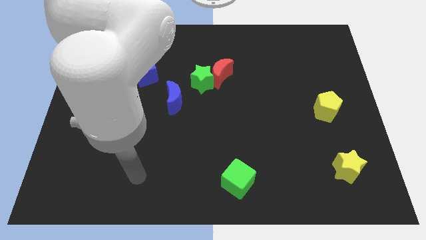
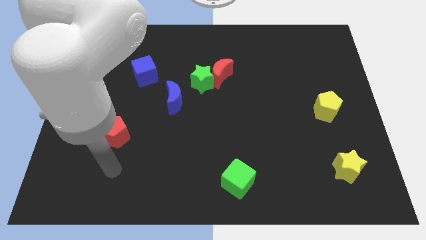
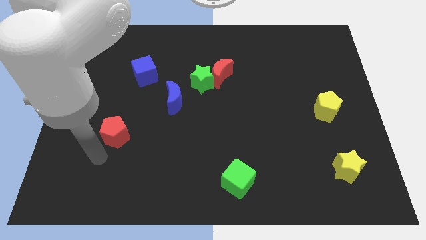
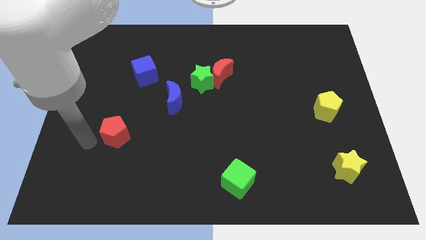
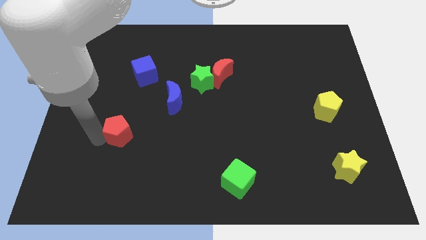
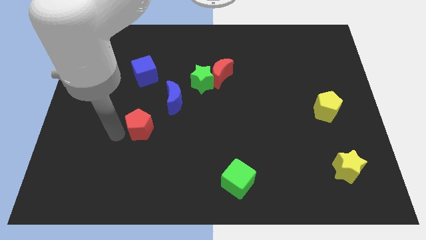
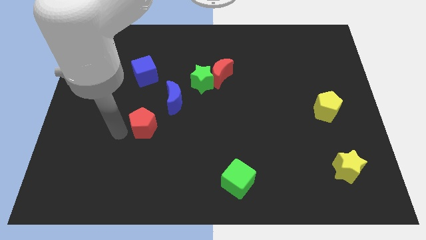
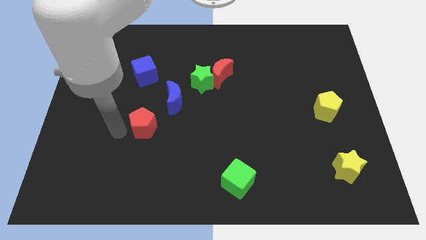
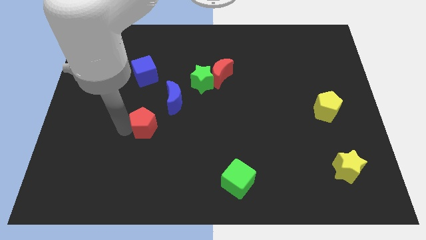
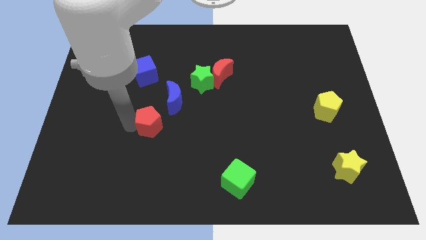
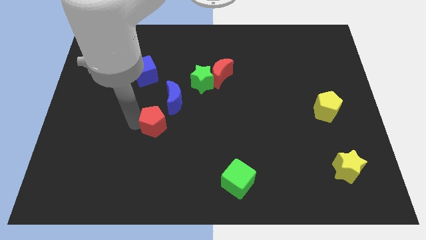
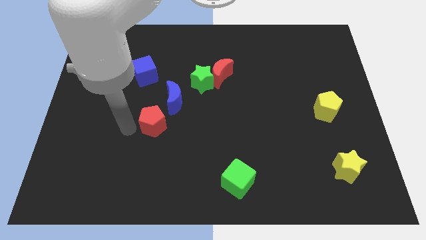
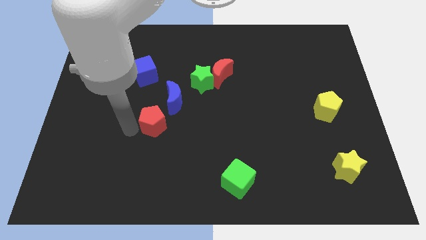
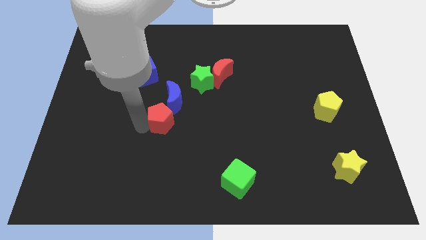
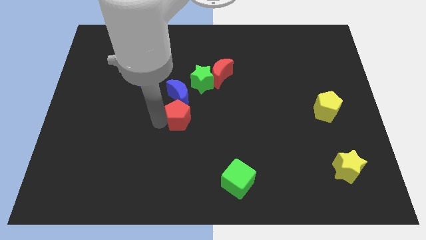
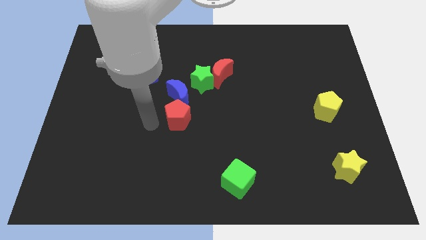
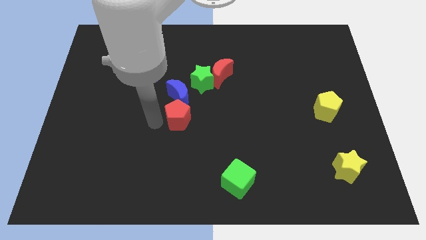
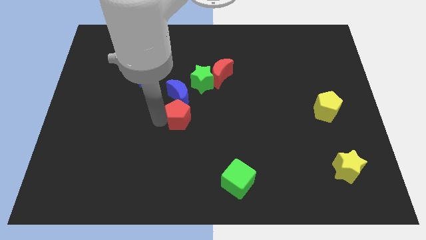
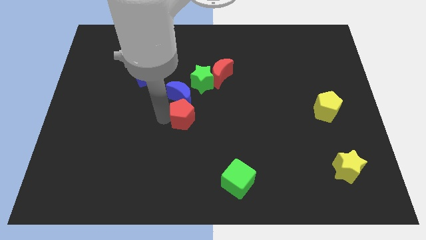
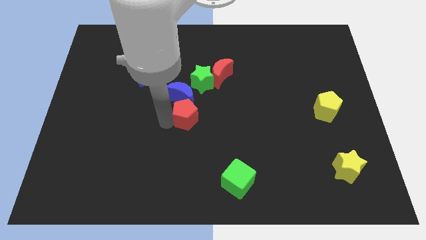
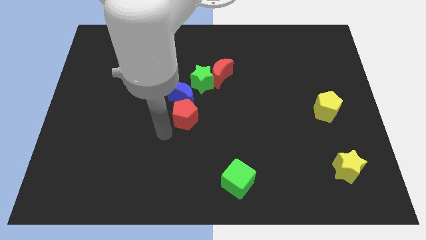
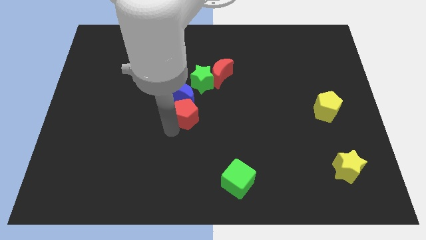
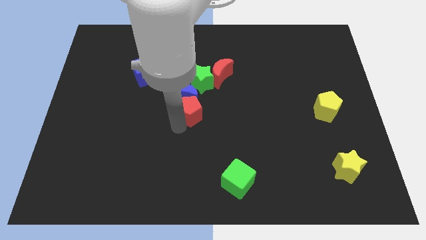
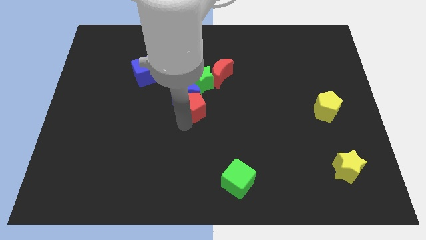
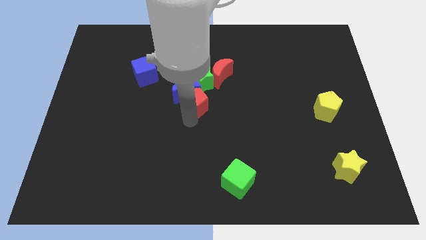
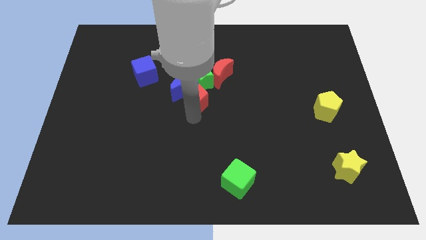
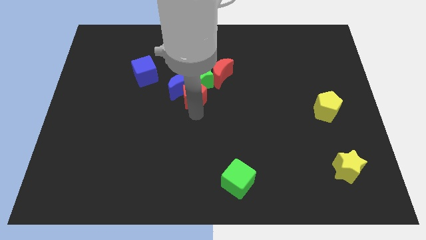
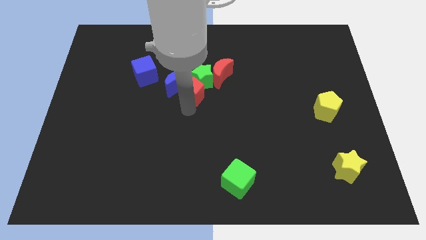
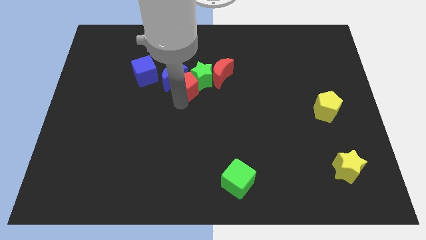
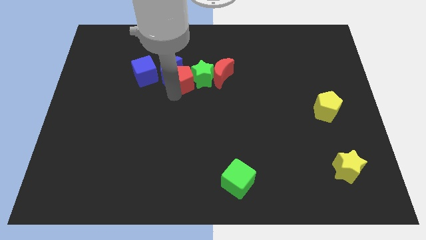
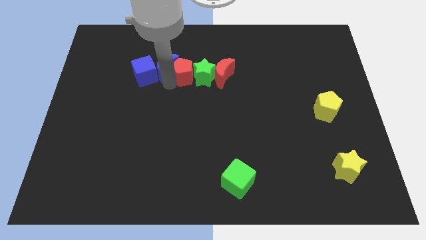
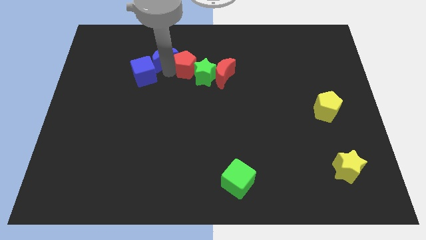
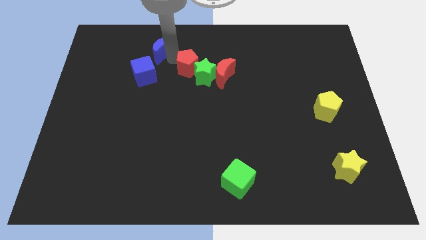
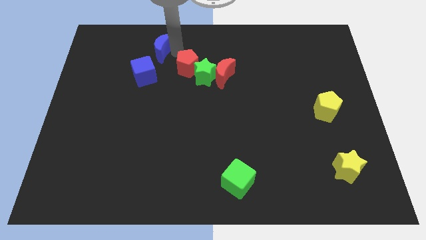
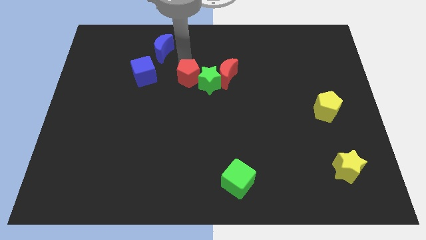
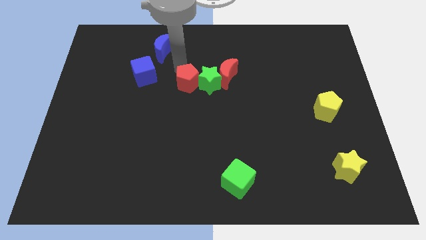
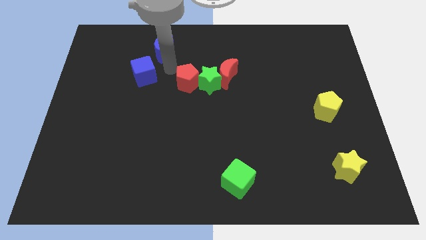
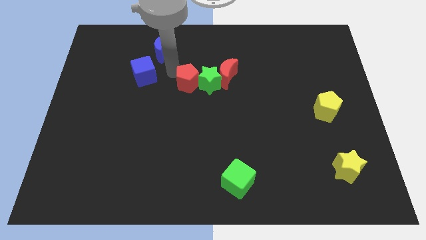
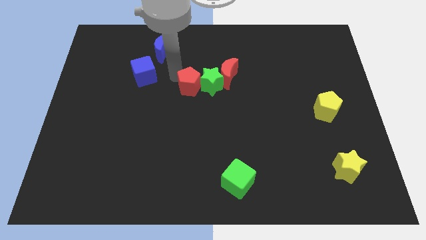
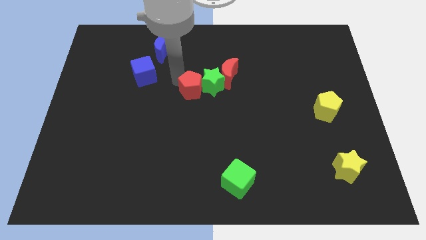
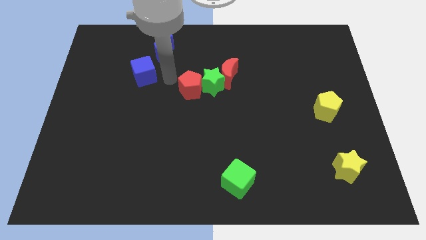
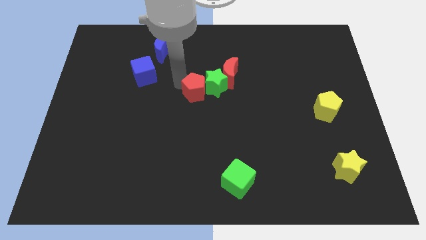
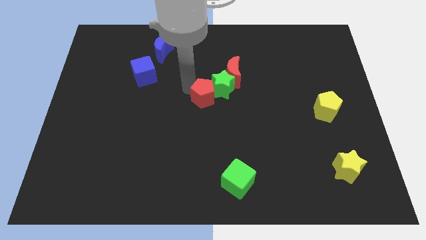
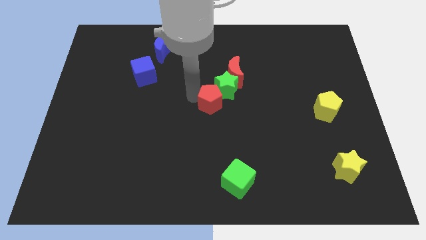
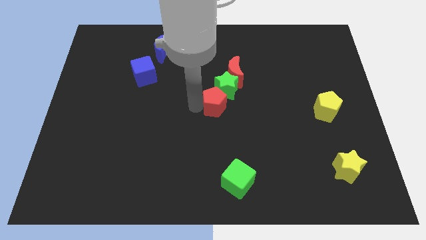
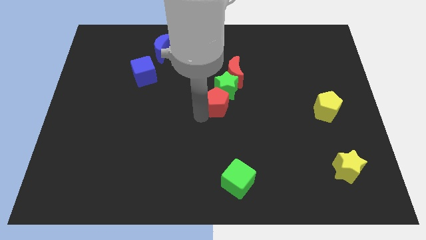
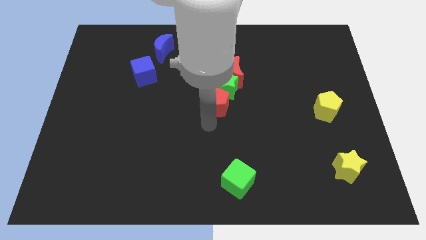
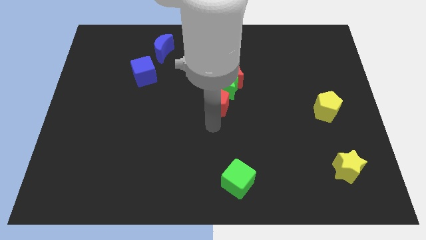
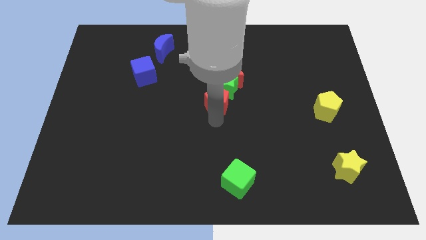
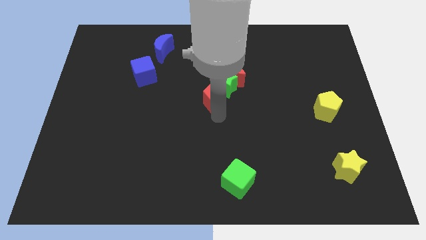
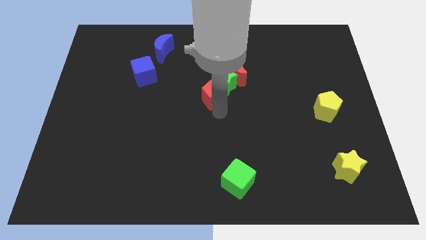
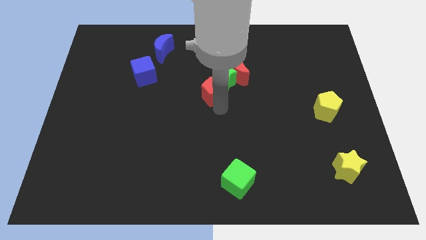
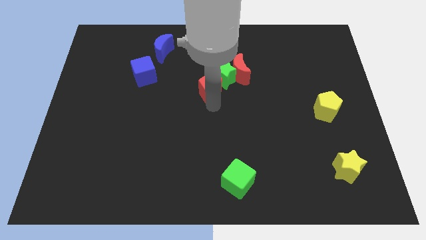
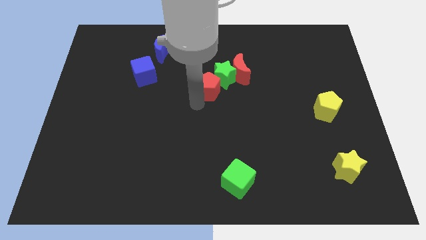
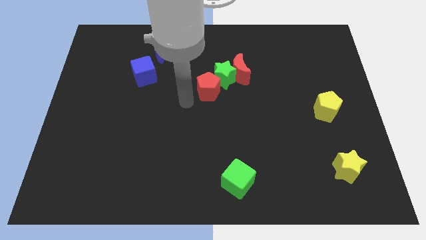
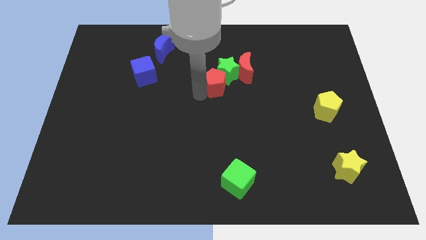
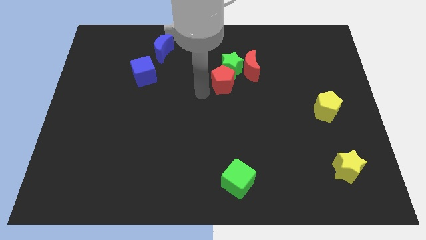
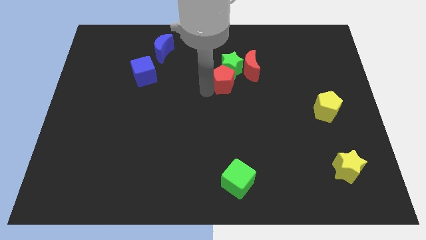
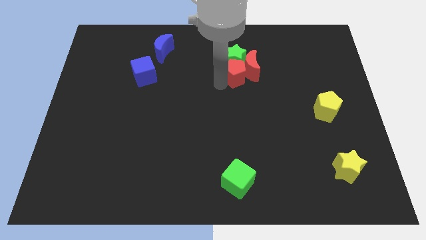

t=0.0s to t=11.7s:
push the red pentagon towards the red moon

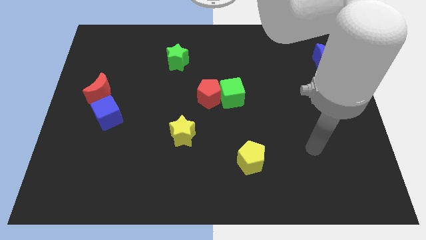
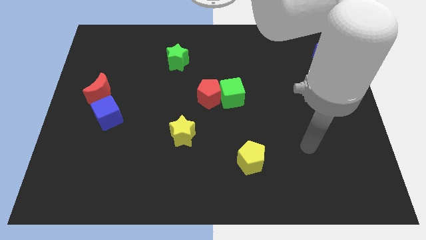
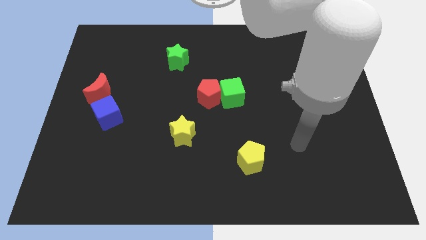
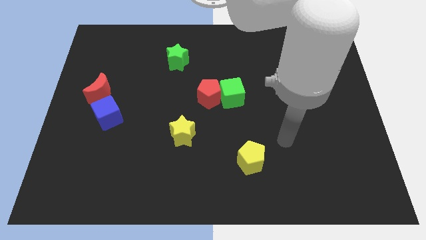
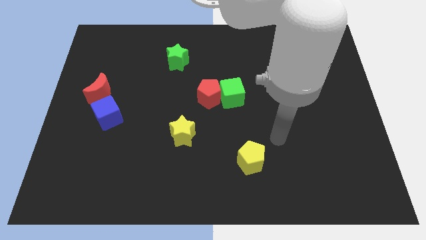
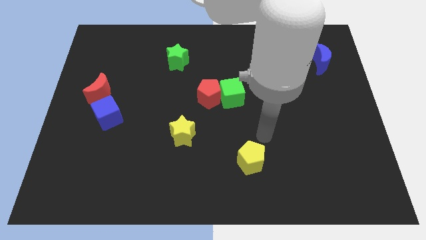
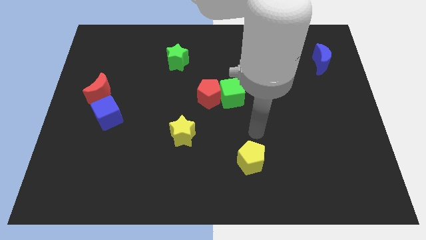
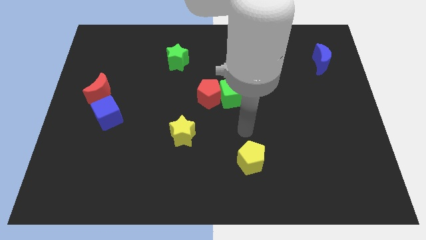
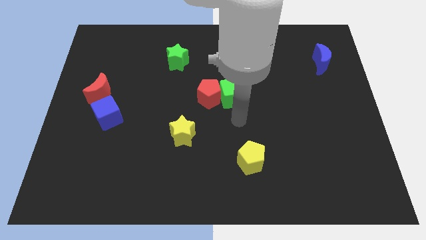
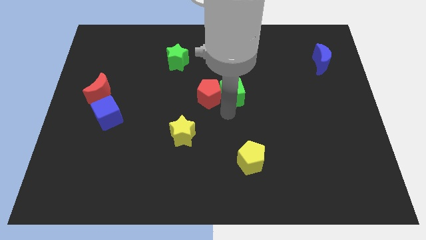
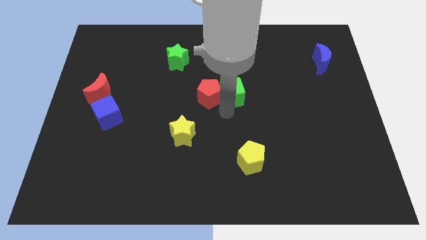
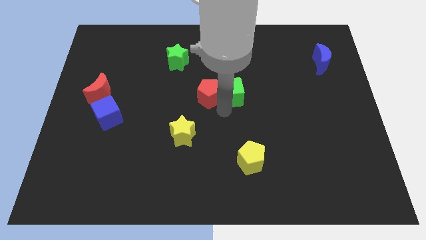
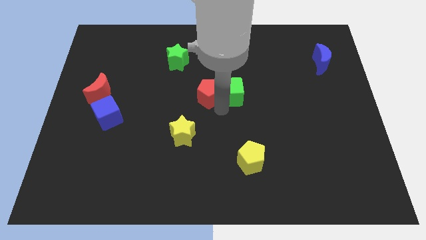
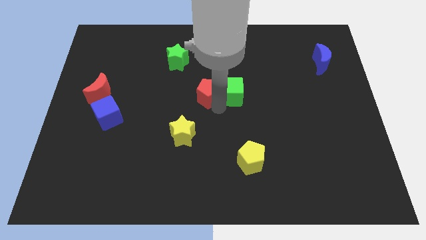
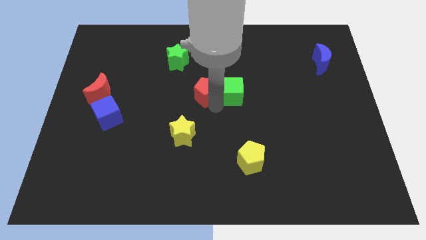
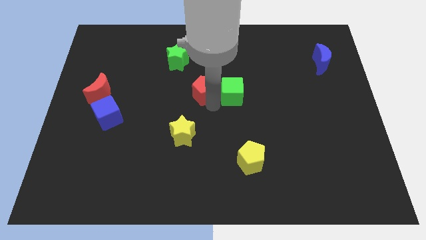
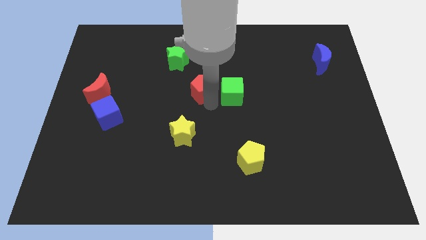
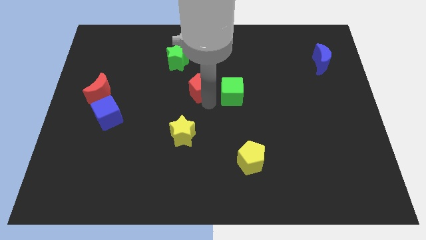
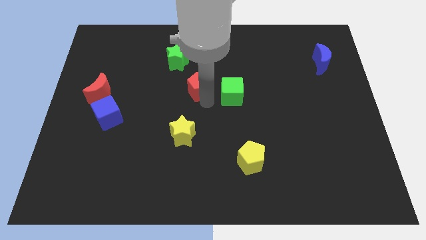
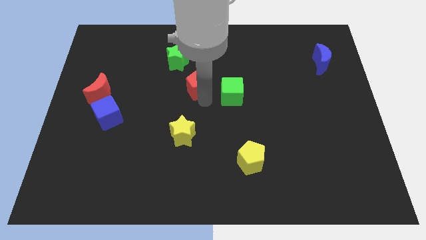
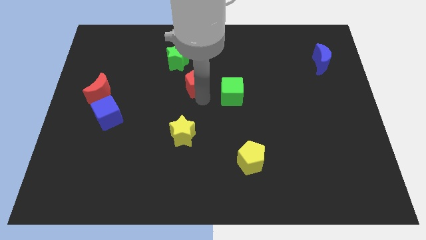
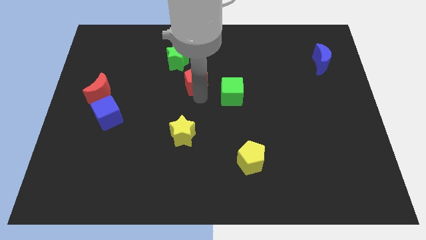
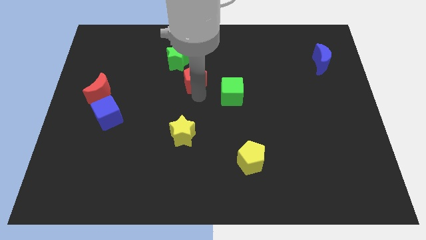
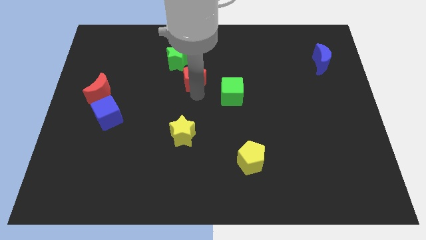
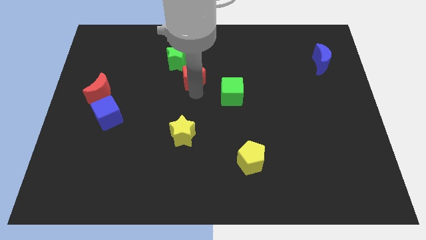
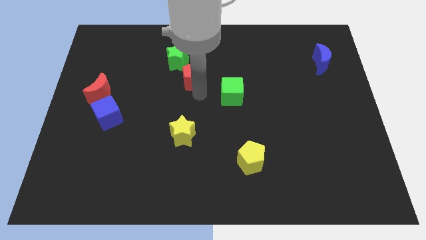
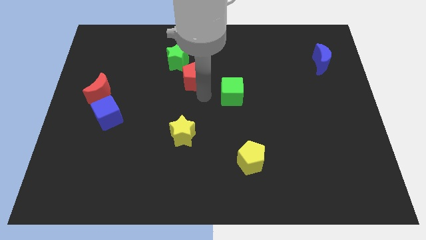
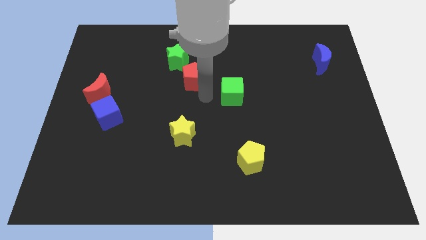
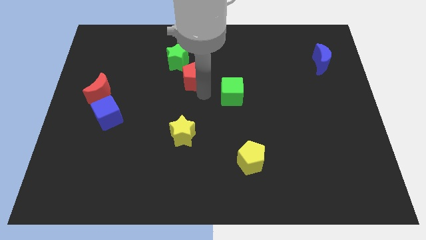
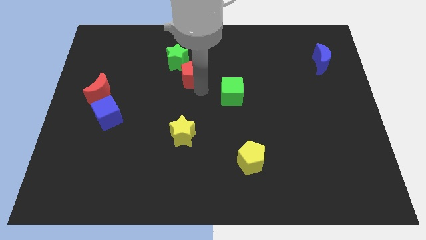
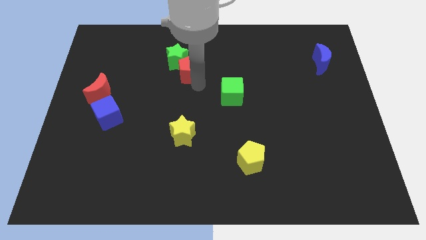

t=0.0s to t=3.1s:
slide the red pentagon towards the green star
